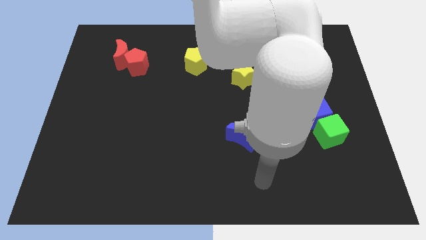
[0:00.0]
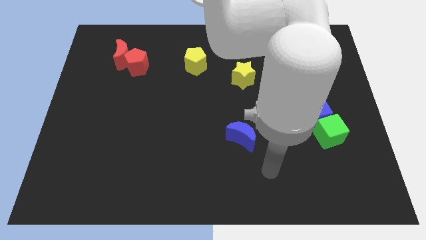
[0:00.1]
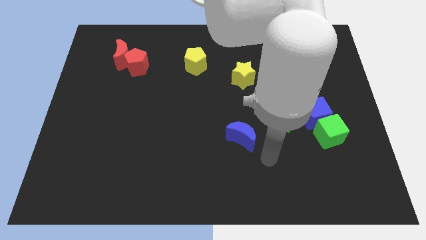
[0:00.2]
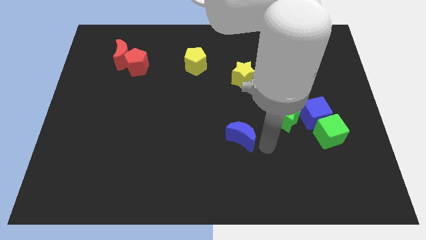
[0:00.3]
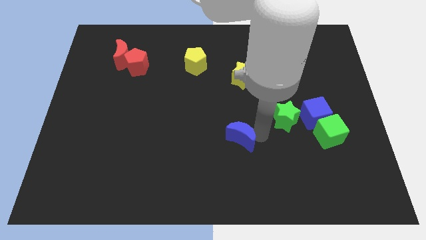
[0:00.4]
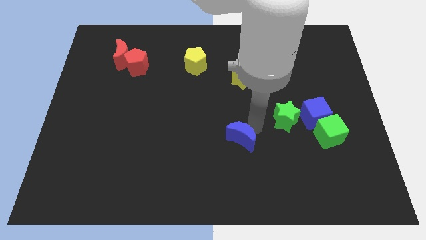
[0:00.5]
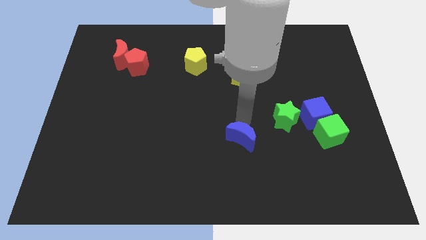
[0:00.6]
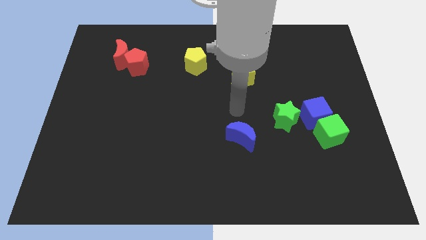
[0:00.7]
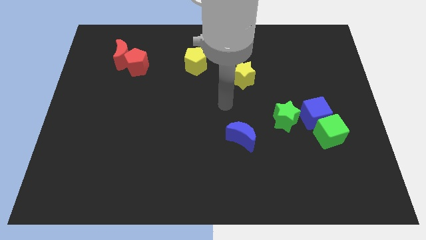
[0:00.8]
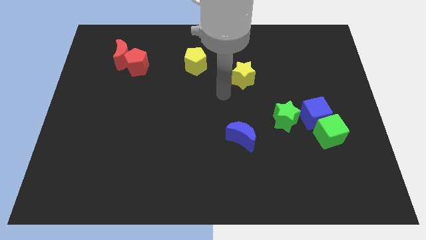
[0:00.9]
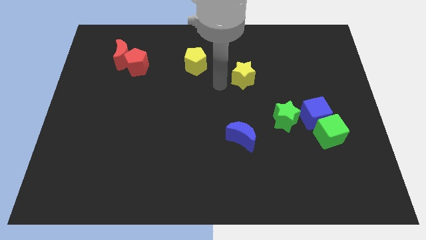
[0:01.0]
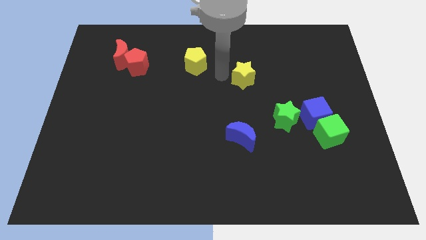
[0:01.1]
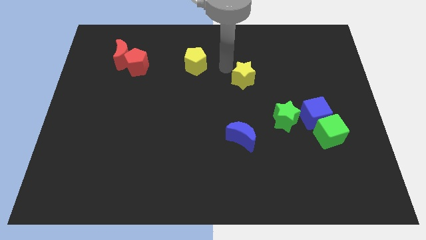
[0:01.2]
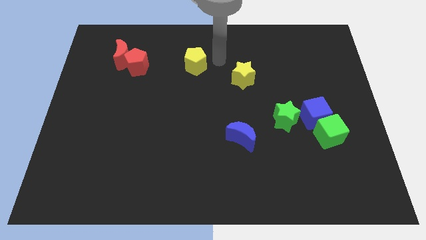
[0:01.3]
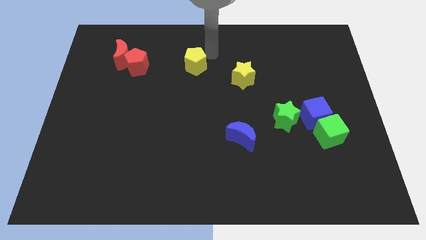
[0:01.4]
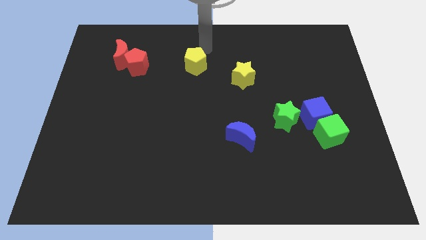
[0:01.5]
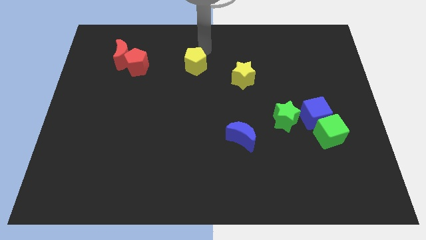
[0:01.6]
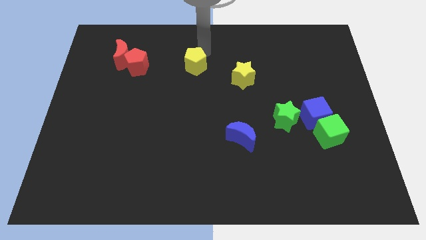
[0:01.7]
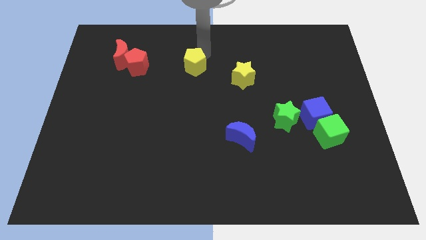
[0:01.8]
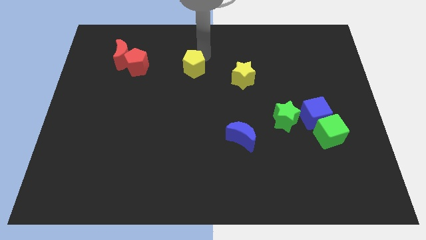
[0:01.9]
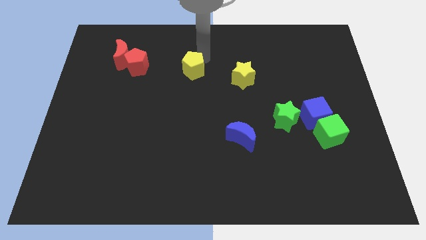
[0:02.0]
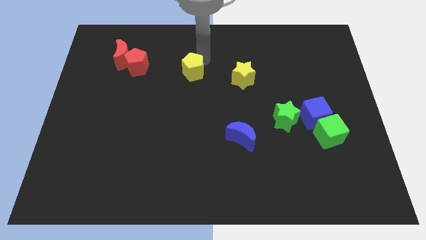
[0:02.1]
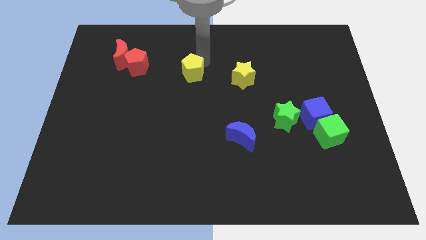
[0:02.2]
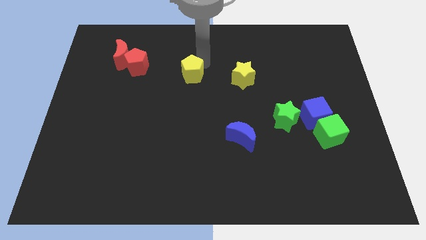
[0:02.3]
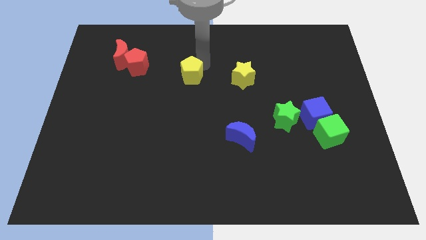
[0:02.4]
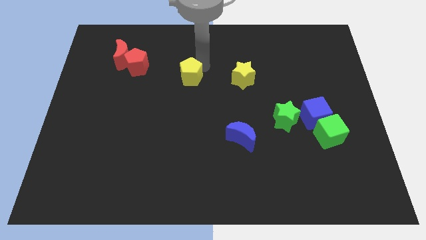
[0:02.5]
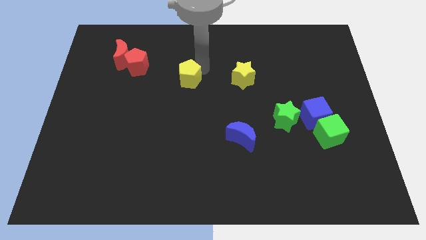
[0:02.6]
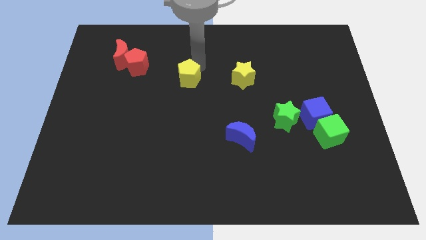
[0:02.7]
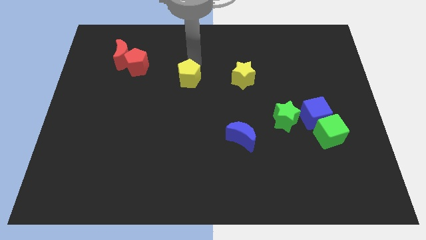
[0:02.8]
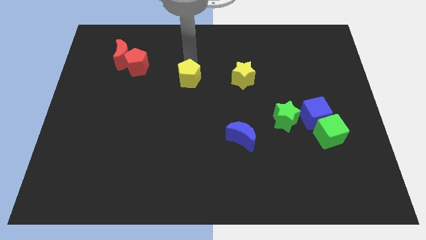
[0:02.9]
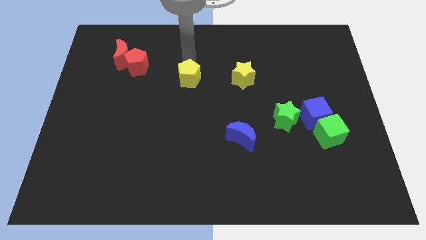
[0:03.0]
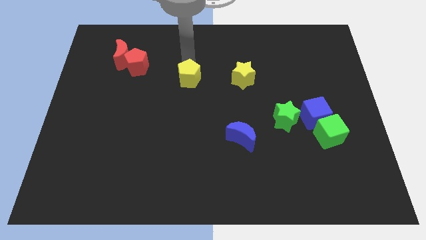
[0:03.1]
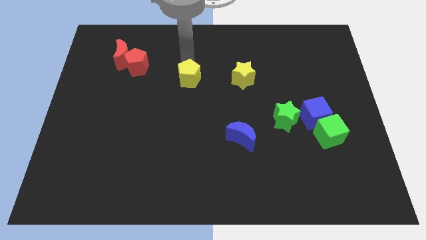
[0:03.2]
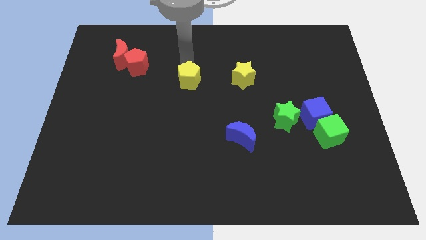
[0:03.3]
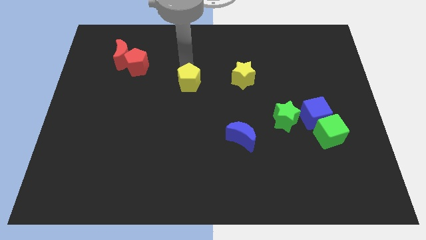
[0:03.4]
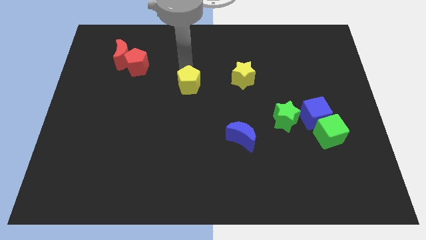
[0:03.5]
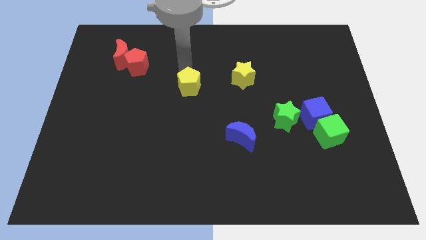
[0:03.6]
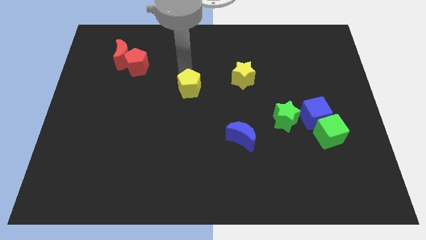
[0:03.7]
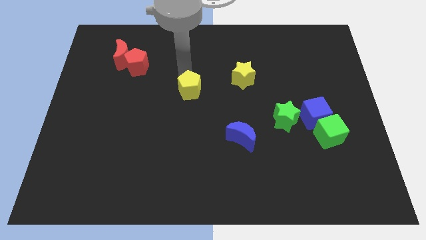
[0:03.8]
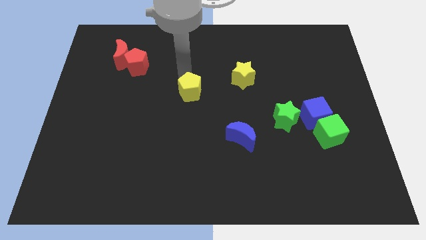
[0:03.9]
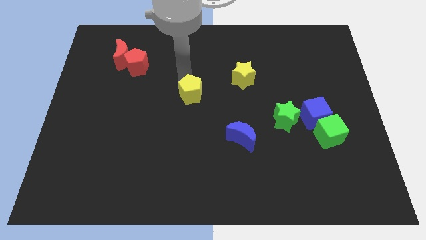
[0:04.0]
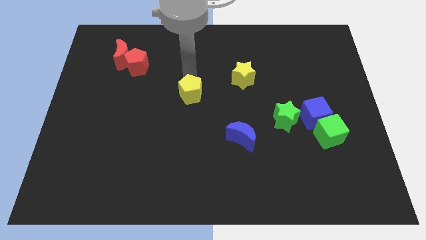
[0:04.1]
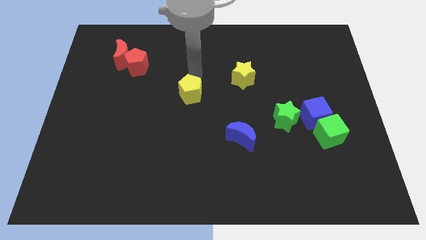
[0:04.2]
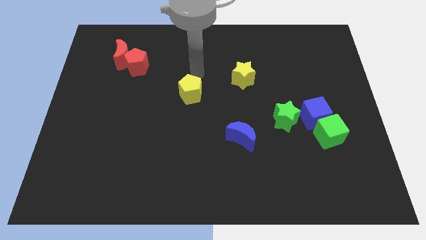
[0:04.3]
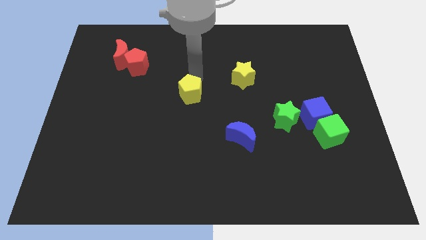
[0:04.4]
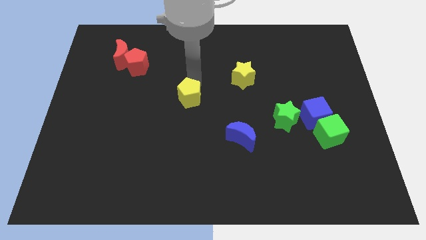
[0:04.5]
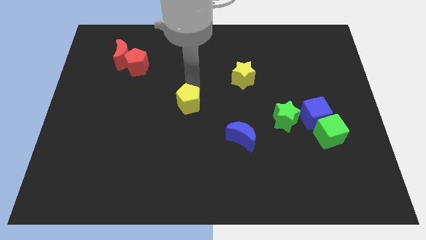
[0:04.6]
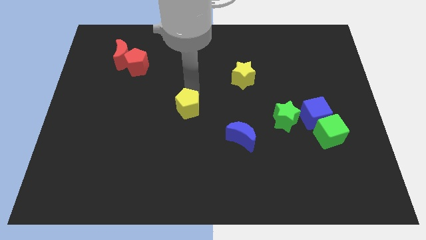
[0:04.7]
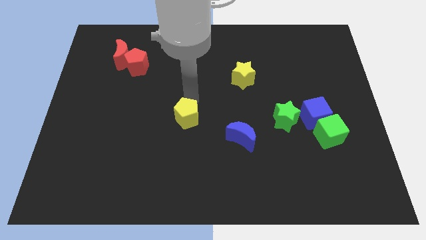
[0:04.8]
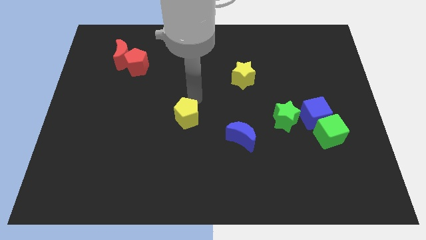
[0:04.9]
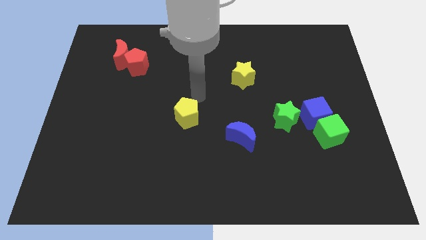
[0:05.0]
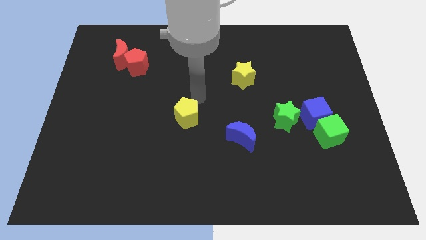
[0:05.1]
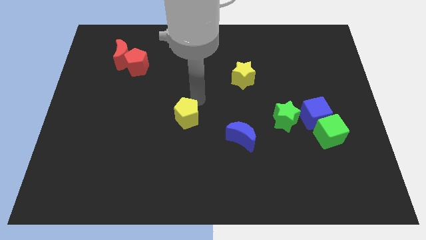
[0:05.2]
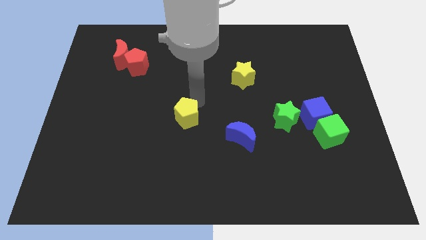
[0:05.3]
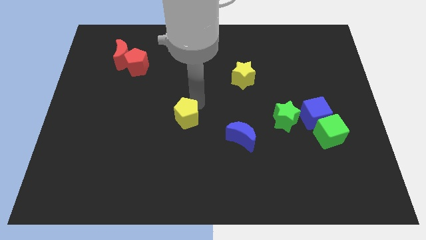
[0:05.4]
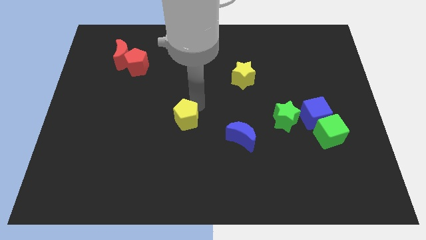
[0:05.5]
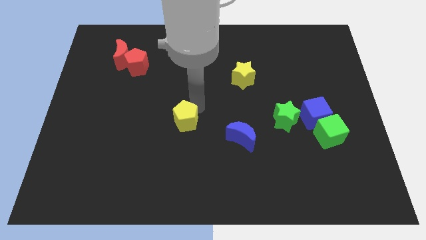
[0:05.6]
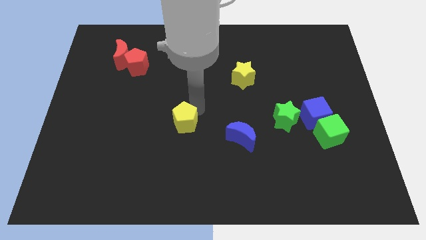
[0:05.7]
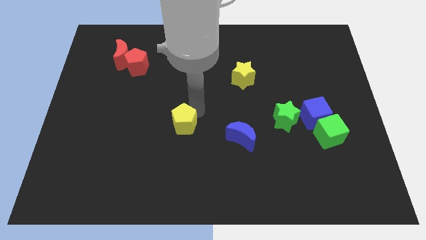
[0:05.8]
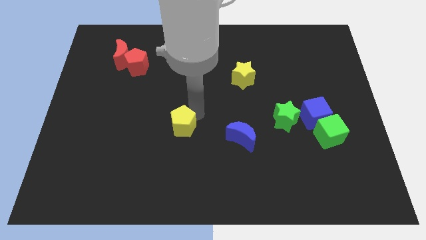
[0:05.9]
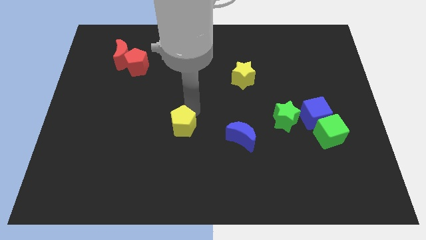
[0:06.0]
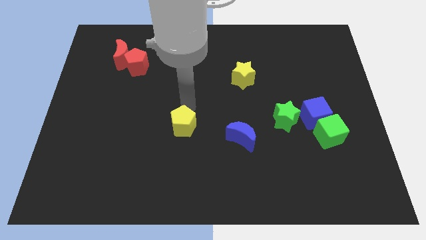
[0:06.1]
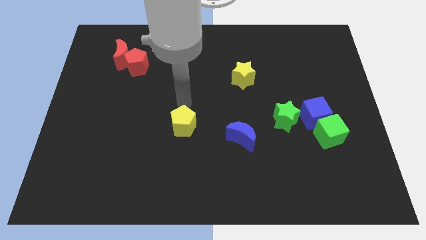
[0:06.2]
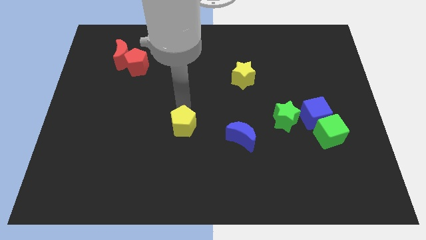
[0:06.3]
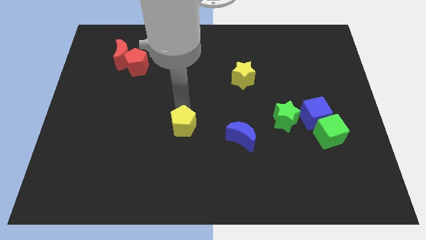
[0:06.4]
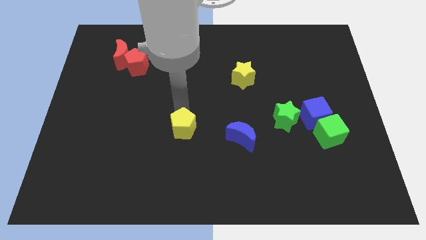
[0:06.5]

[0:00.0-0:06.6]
slide the yellow pentagon downwards

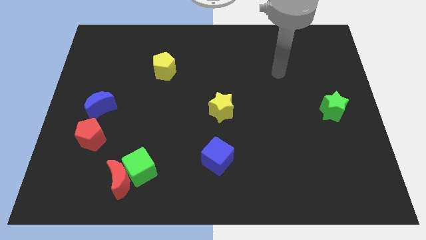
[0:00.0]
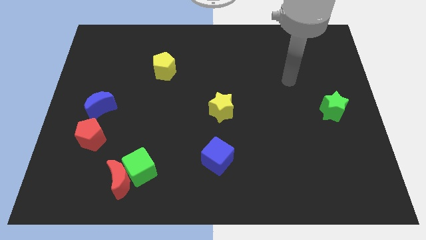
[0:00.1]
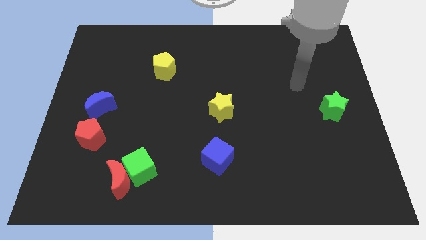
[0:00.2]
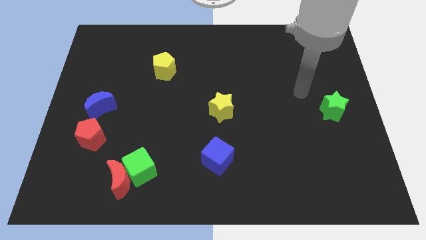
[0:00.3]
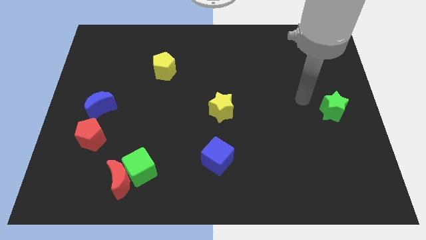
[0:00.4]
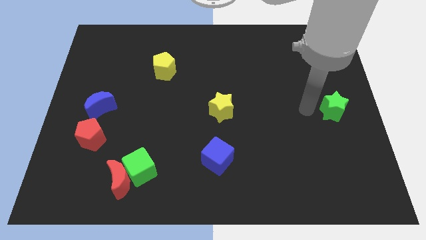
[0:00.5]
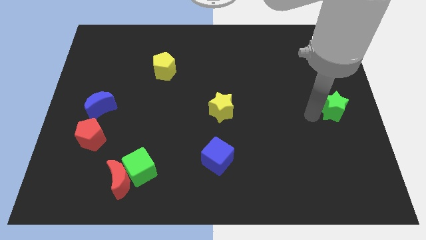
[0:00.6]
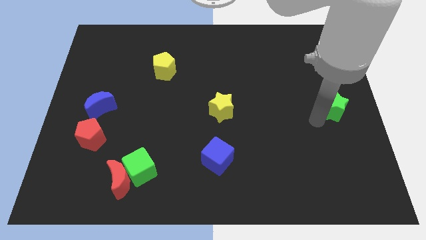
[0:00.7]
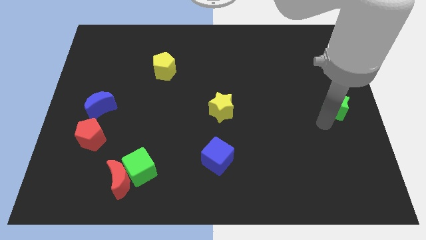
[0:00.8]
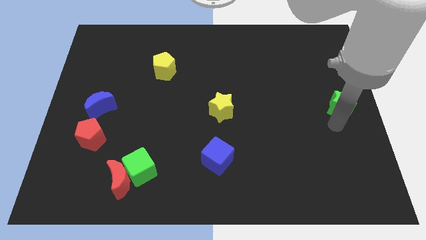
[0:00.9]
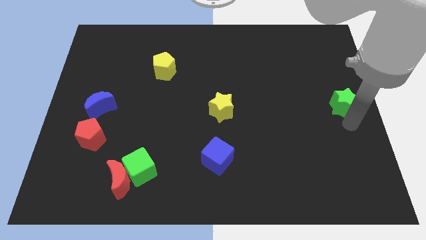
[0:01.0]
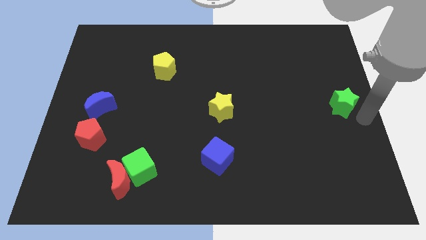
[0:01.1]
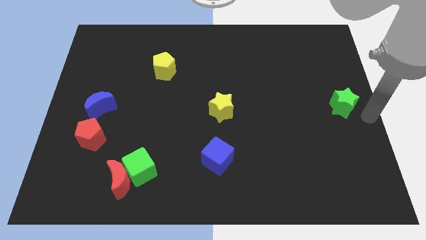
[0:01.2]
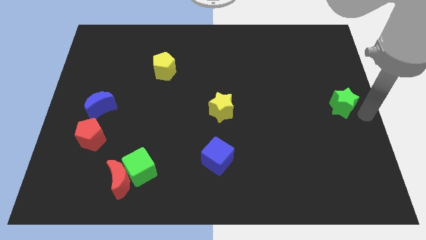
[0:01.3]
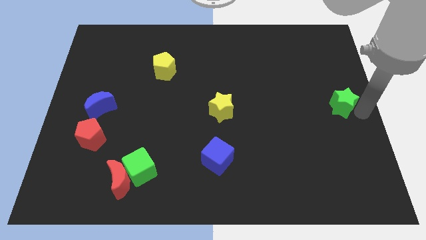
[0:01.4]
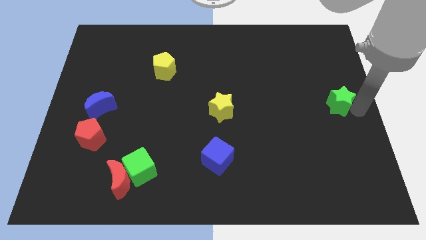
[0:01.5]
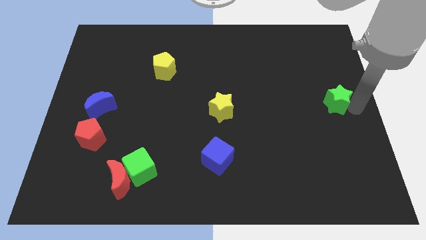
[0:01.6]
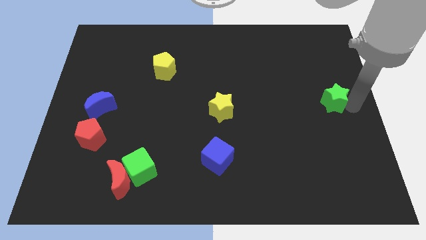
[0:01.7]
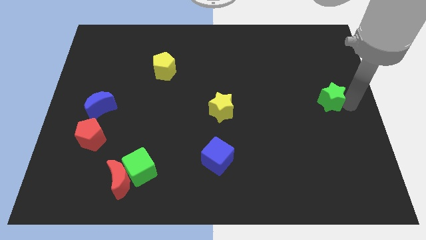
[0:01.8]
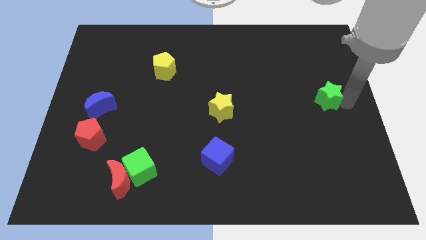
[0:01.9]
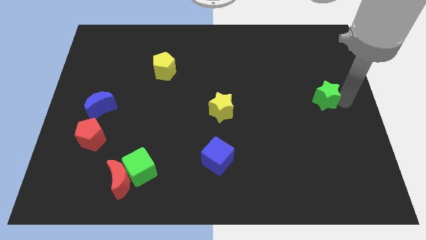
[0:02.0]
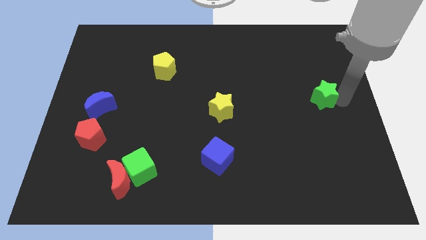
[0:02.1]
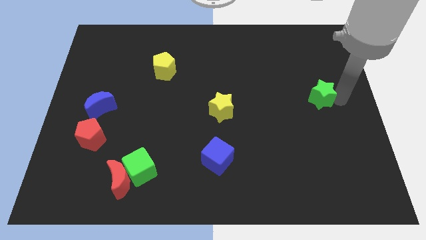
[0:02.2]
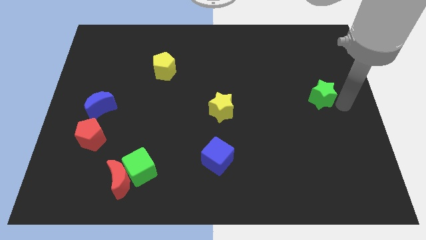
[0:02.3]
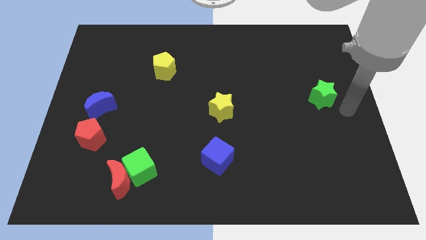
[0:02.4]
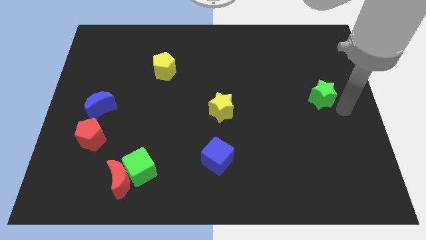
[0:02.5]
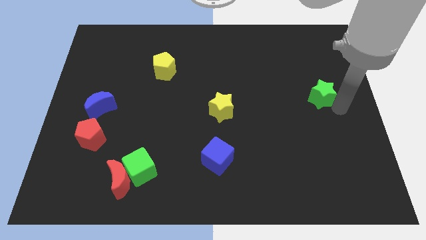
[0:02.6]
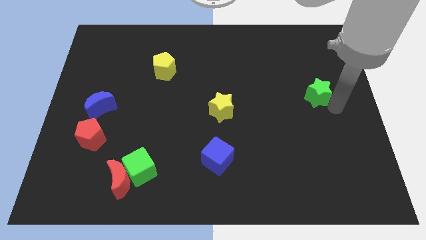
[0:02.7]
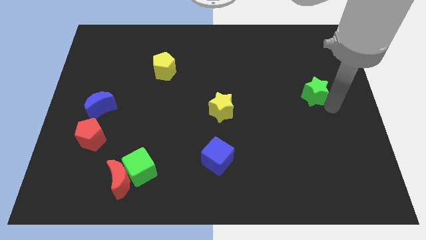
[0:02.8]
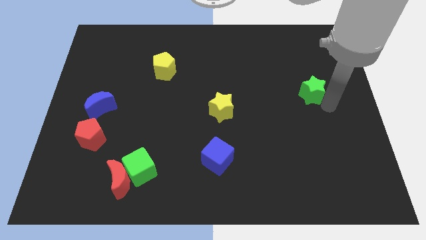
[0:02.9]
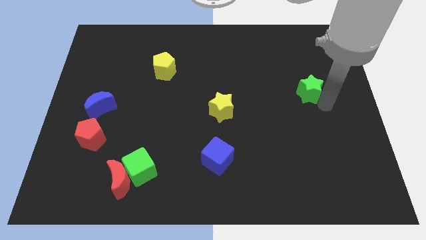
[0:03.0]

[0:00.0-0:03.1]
slightly push the green star diagonally up and left
